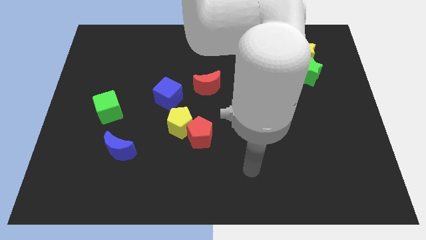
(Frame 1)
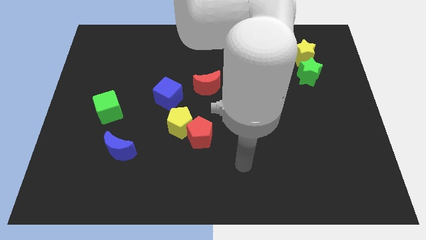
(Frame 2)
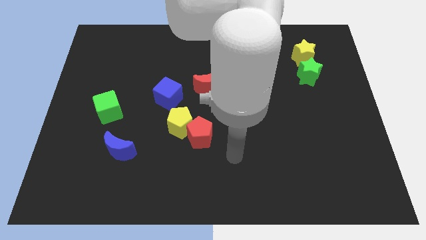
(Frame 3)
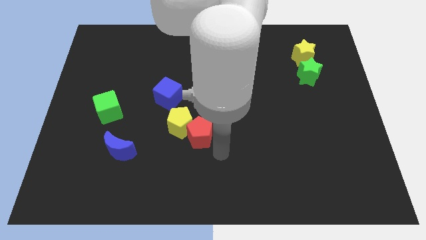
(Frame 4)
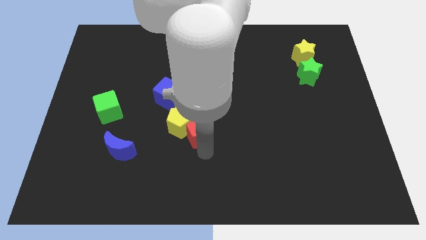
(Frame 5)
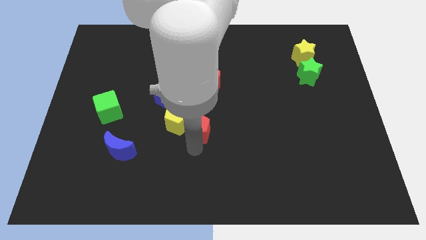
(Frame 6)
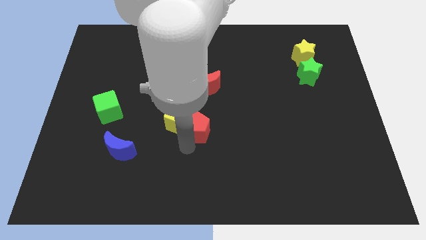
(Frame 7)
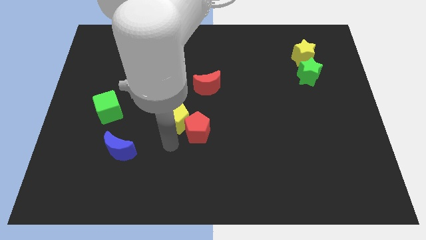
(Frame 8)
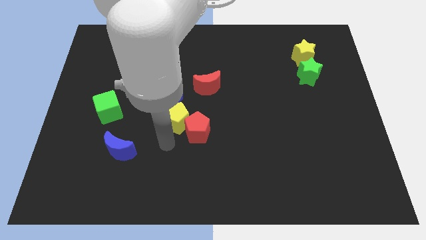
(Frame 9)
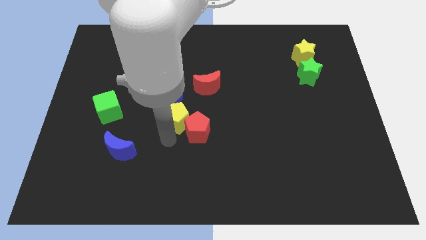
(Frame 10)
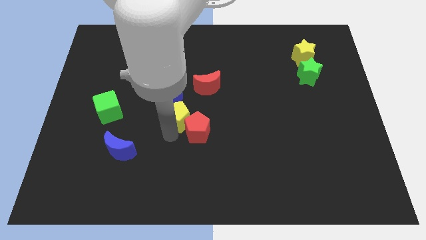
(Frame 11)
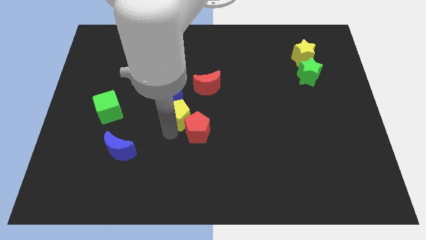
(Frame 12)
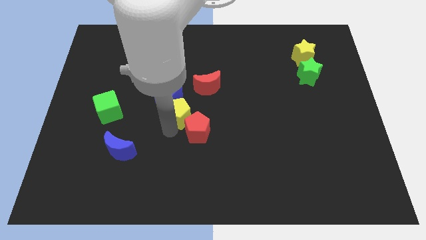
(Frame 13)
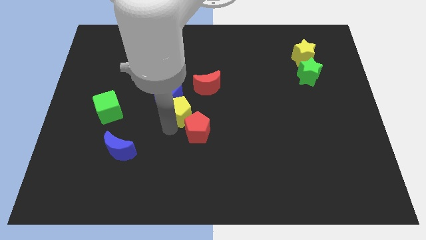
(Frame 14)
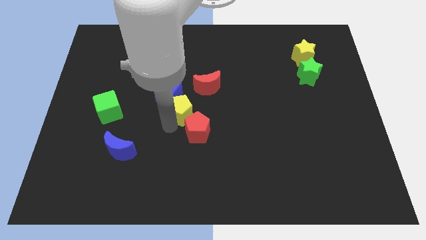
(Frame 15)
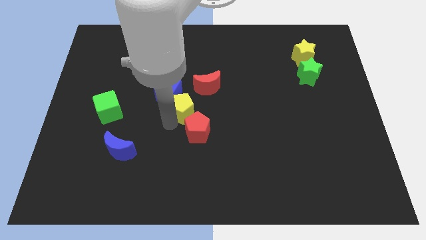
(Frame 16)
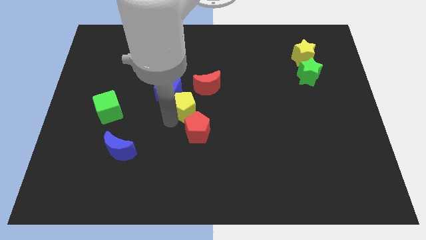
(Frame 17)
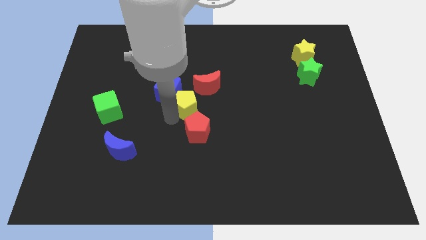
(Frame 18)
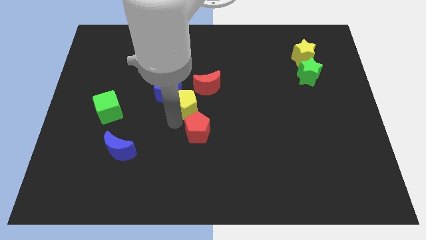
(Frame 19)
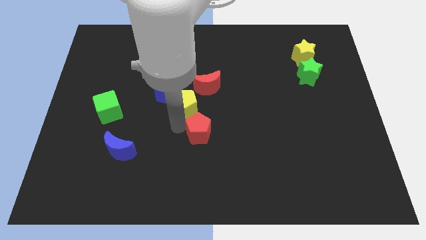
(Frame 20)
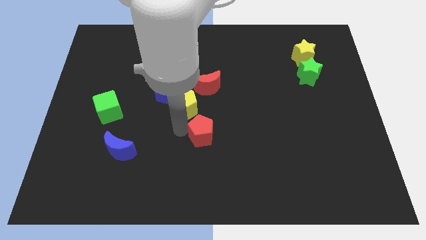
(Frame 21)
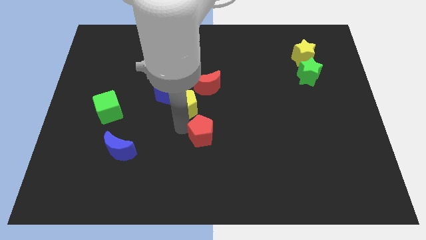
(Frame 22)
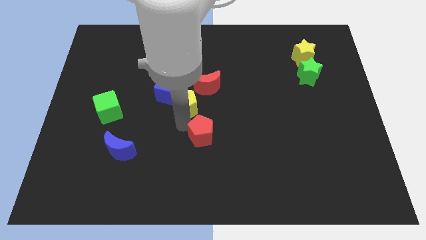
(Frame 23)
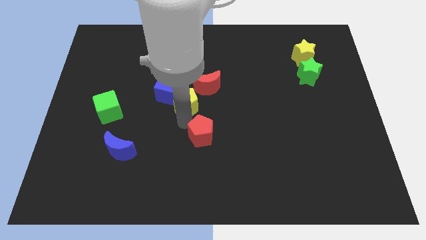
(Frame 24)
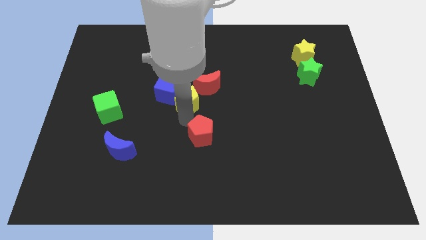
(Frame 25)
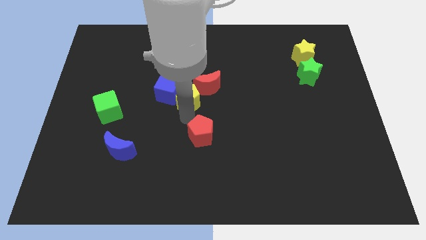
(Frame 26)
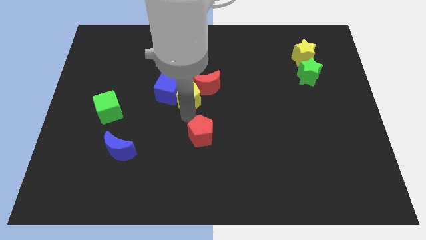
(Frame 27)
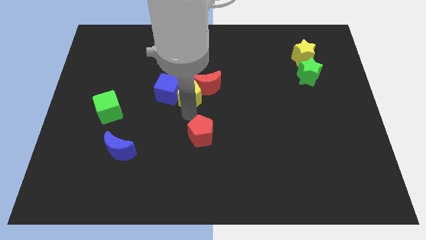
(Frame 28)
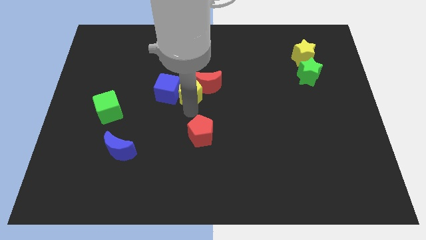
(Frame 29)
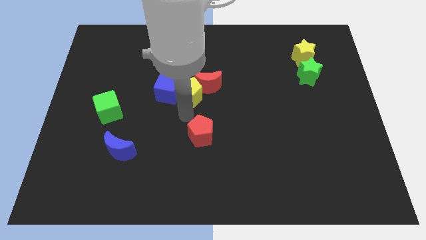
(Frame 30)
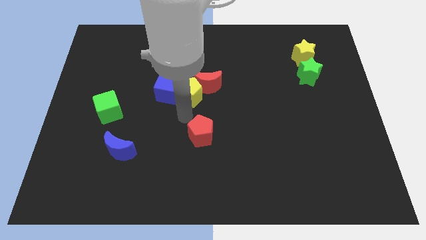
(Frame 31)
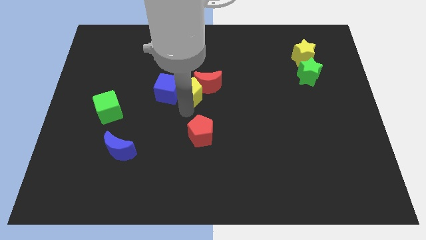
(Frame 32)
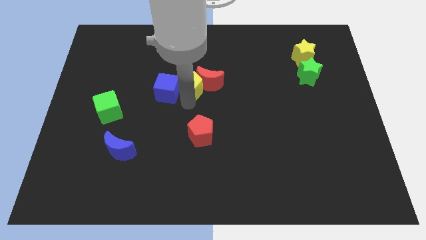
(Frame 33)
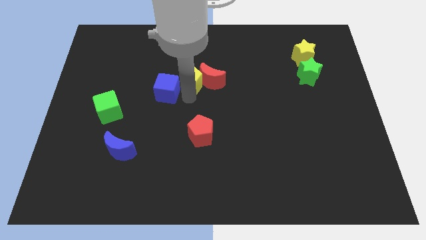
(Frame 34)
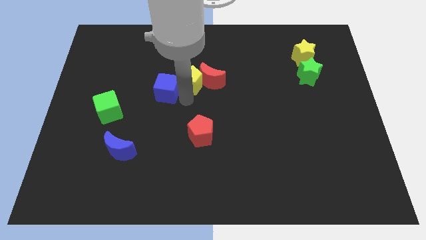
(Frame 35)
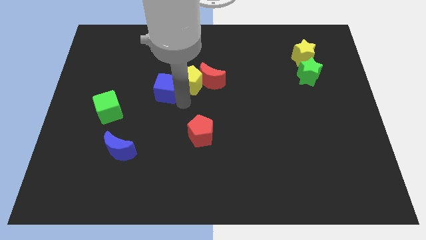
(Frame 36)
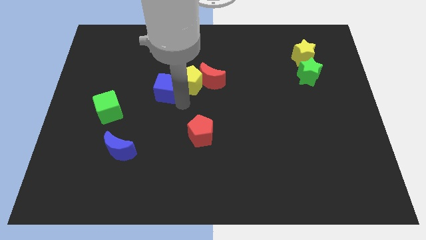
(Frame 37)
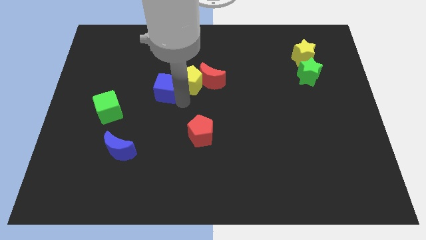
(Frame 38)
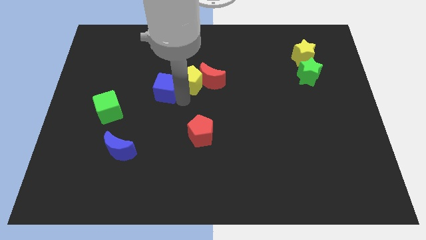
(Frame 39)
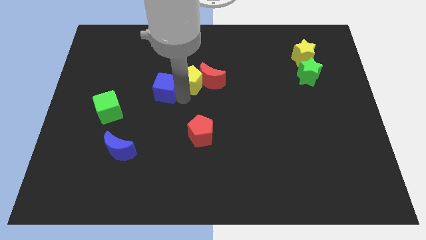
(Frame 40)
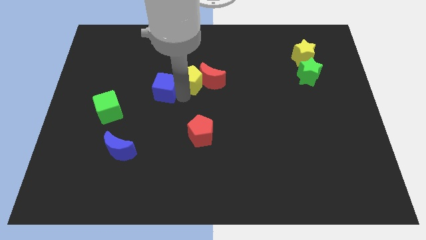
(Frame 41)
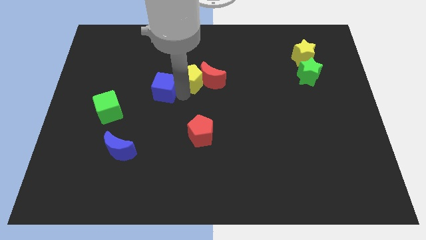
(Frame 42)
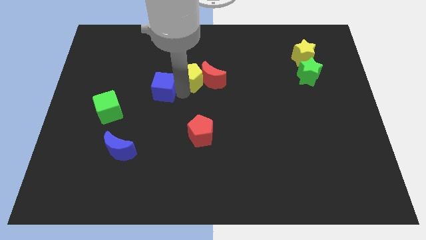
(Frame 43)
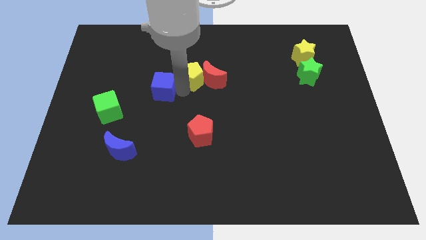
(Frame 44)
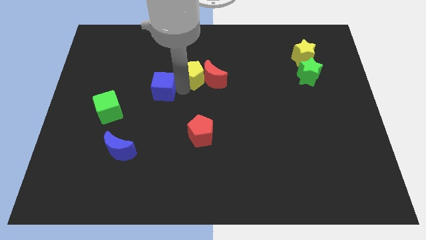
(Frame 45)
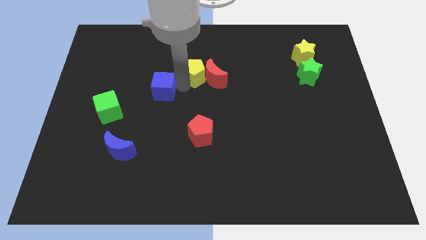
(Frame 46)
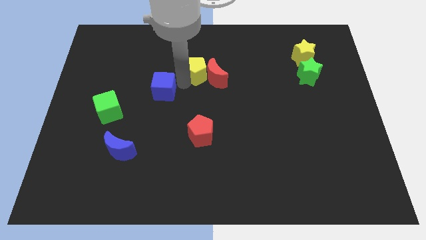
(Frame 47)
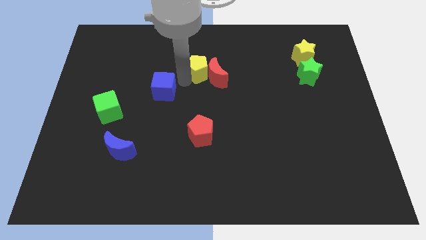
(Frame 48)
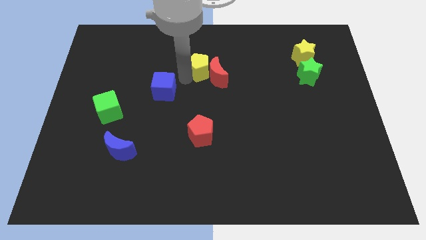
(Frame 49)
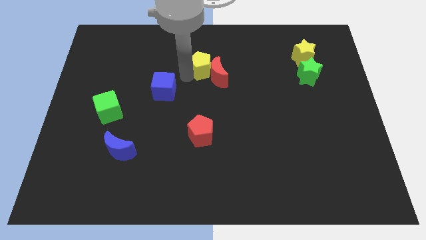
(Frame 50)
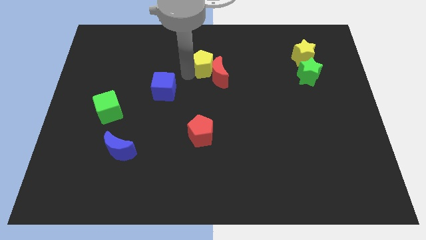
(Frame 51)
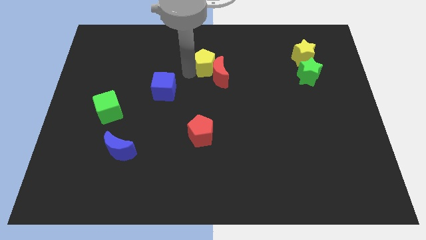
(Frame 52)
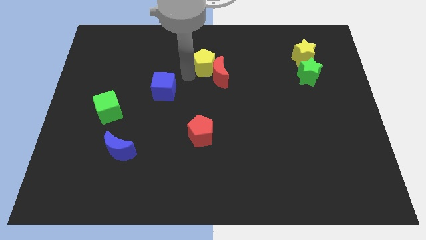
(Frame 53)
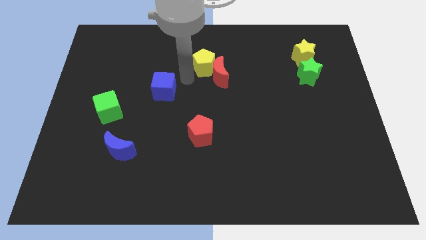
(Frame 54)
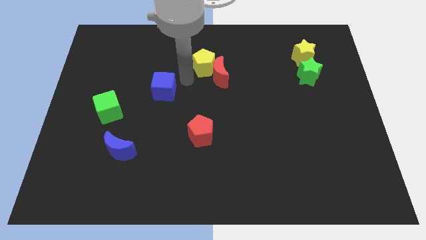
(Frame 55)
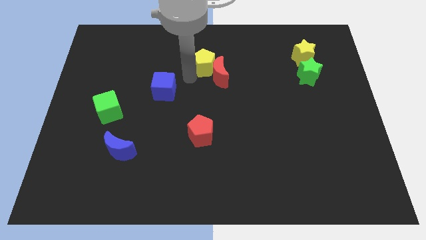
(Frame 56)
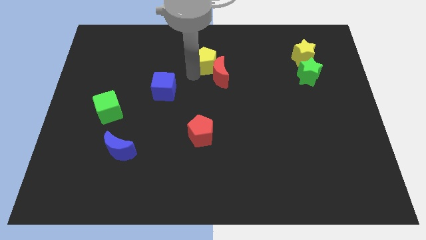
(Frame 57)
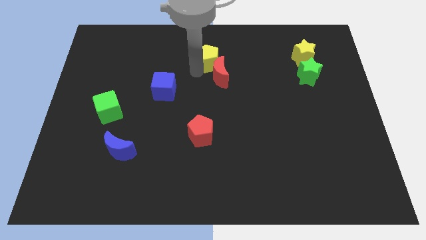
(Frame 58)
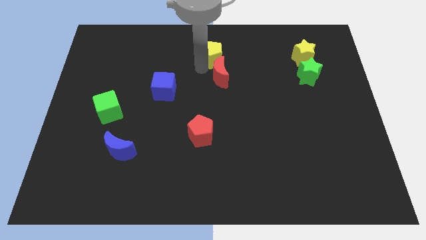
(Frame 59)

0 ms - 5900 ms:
move the yellow pentagon to the top

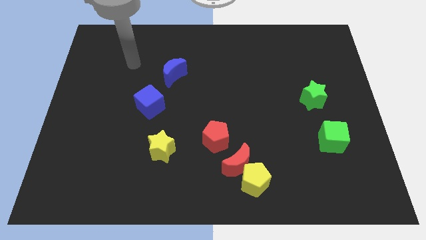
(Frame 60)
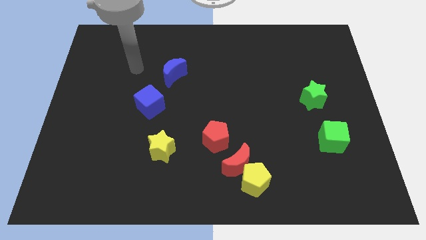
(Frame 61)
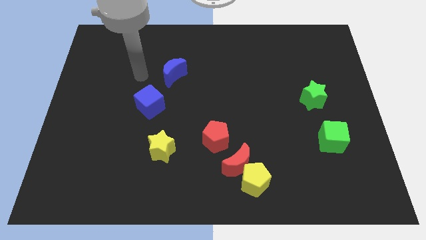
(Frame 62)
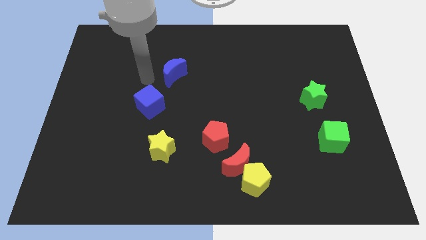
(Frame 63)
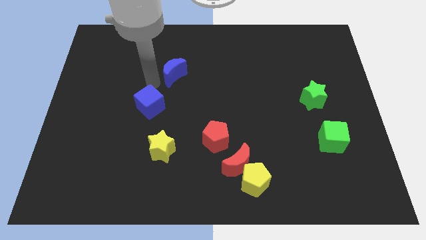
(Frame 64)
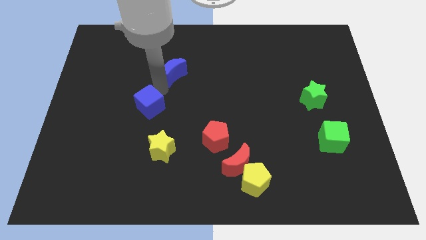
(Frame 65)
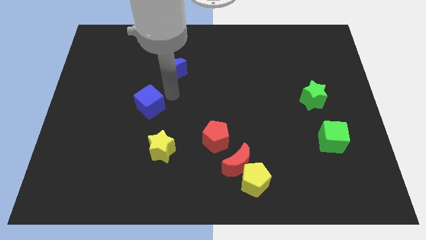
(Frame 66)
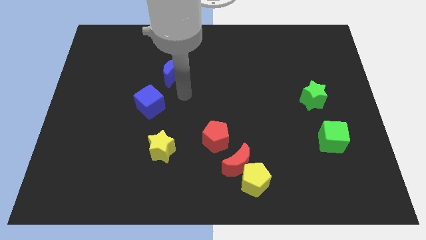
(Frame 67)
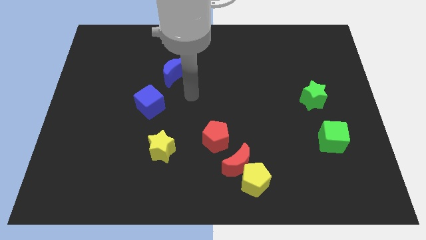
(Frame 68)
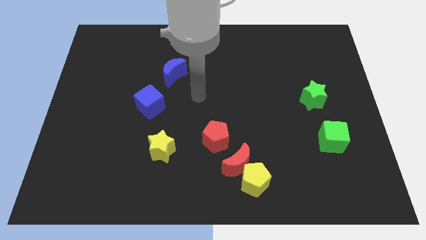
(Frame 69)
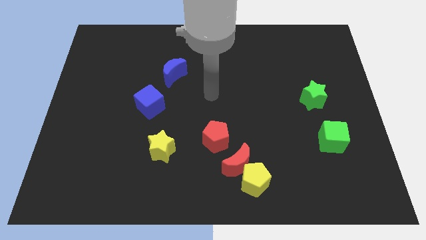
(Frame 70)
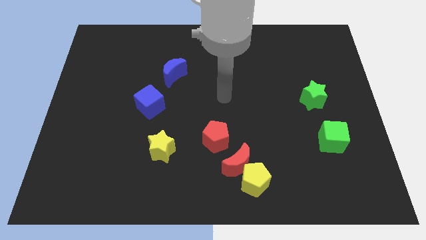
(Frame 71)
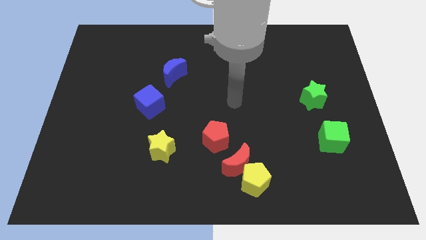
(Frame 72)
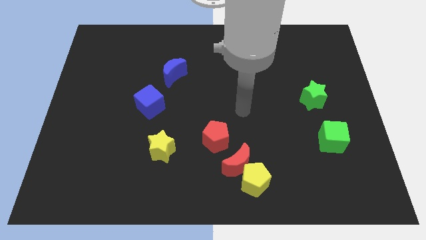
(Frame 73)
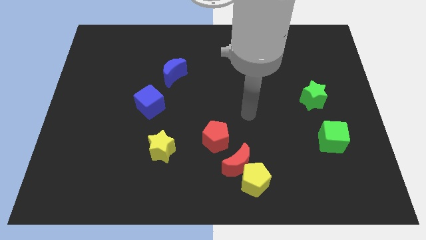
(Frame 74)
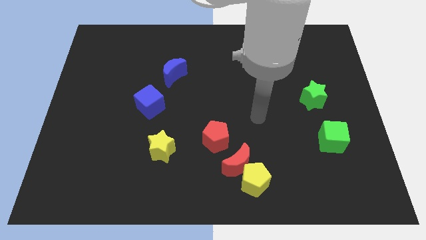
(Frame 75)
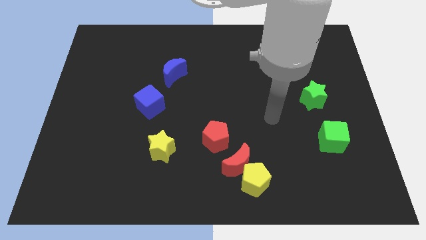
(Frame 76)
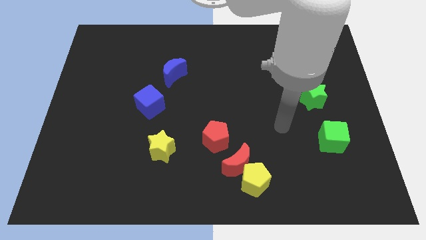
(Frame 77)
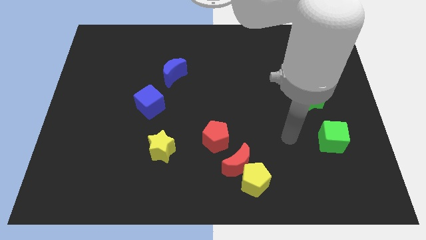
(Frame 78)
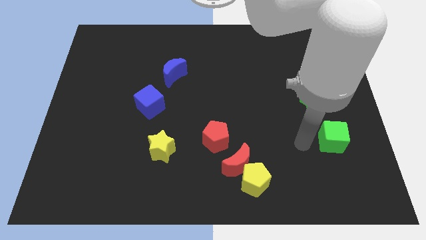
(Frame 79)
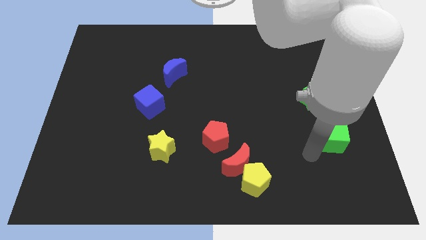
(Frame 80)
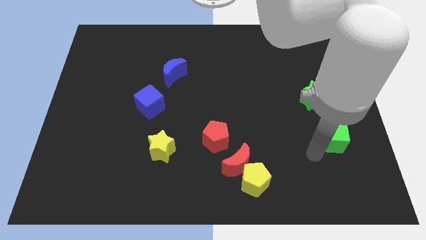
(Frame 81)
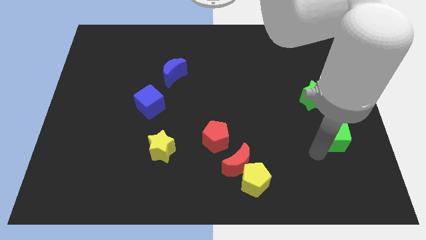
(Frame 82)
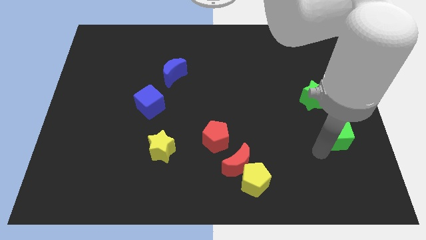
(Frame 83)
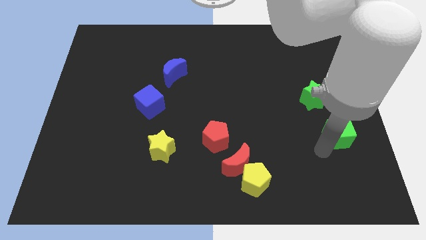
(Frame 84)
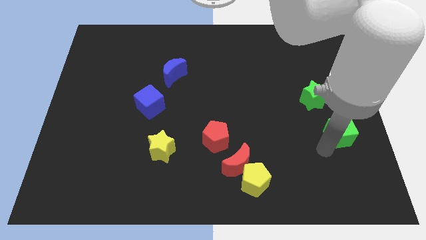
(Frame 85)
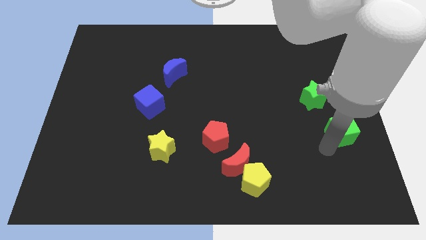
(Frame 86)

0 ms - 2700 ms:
put the green cube to the right side of the board
